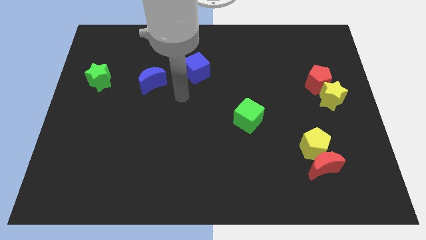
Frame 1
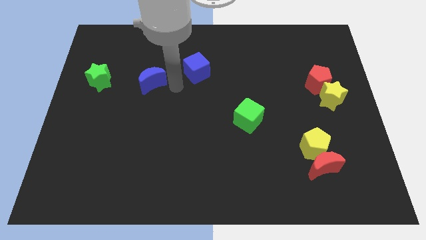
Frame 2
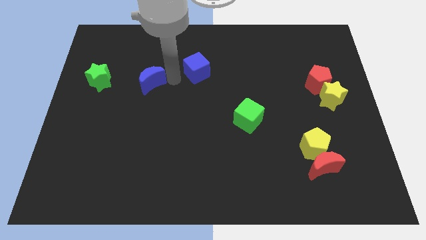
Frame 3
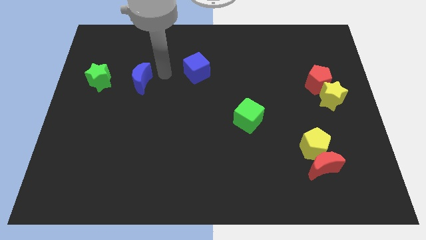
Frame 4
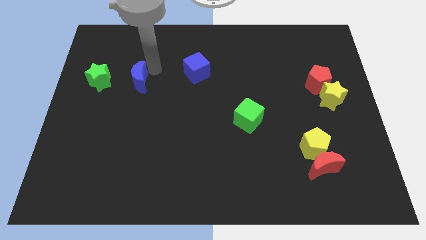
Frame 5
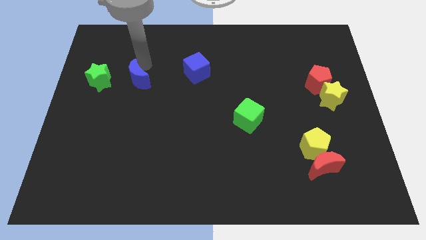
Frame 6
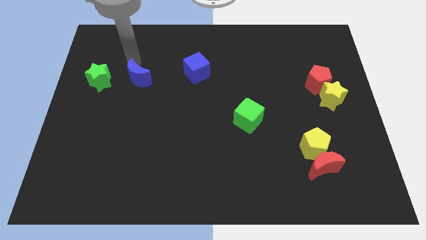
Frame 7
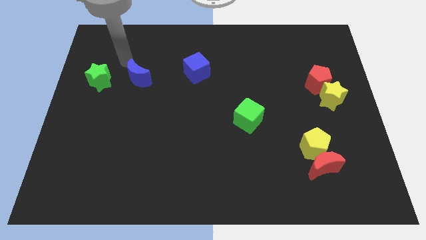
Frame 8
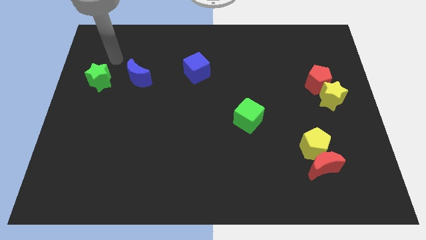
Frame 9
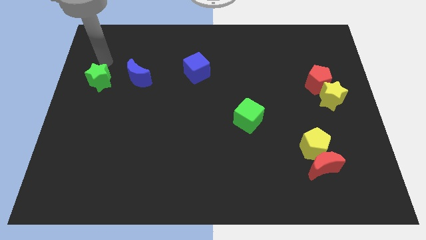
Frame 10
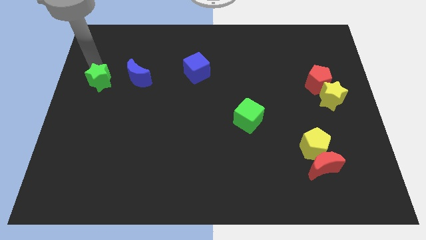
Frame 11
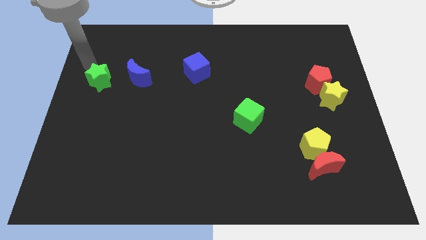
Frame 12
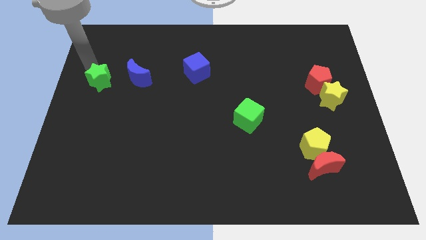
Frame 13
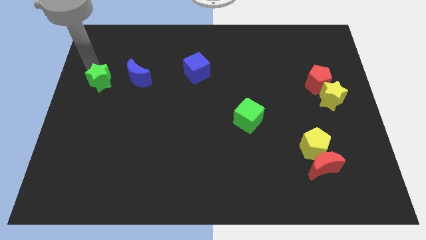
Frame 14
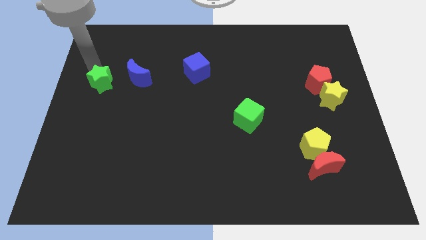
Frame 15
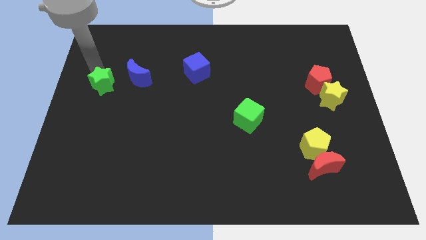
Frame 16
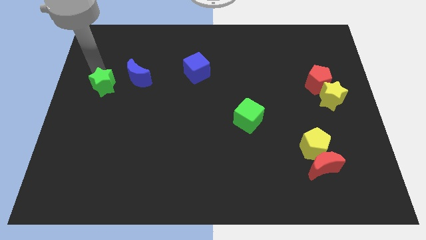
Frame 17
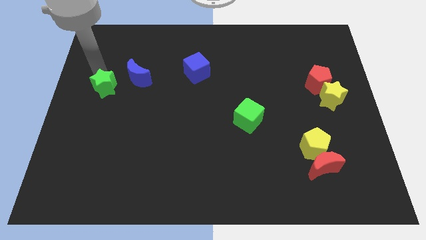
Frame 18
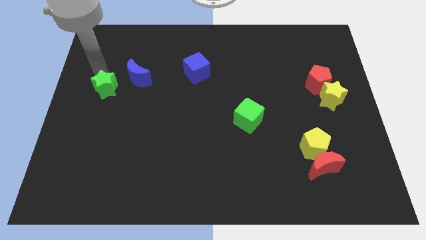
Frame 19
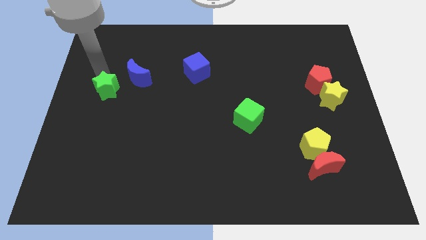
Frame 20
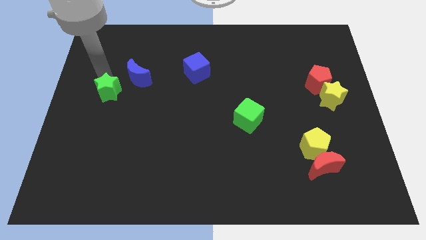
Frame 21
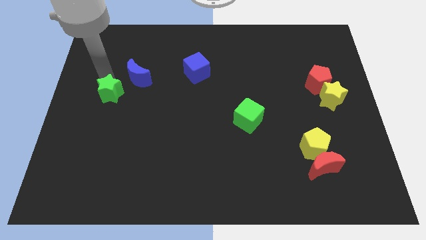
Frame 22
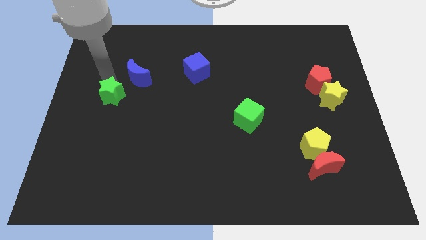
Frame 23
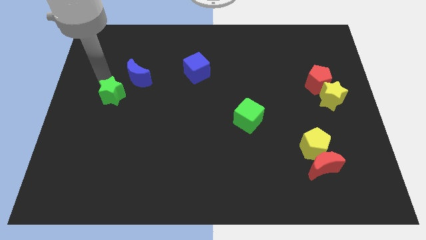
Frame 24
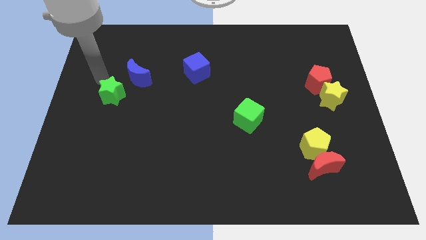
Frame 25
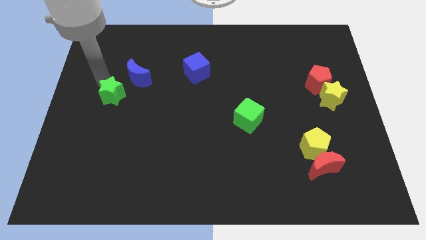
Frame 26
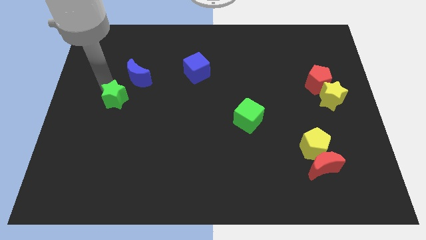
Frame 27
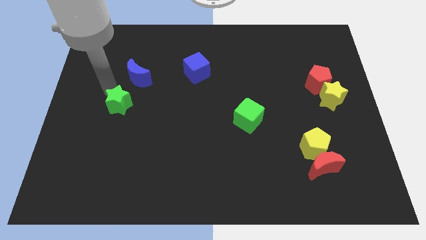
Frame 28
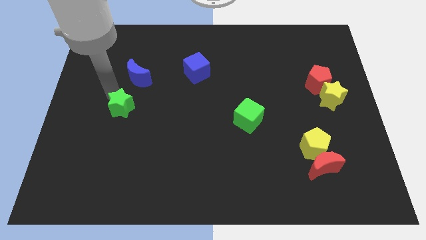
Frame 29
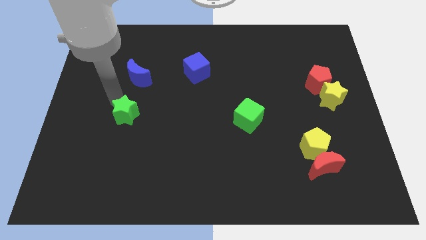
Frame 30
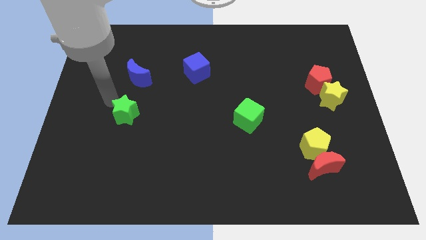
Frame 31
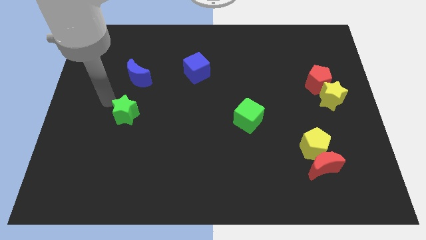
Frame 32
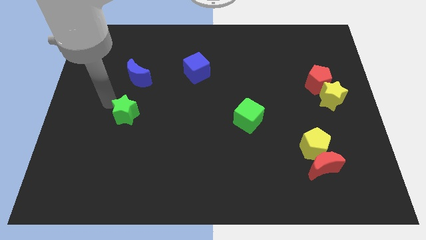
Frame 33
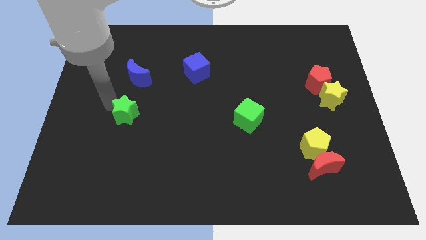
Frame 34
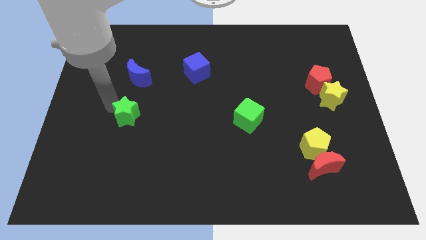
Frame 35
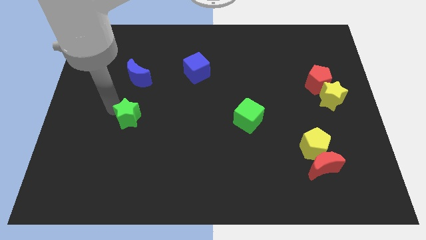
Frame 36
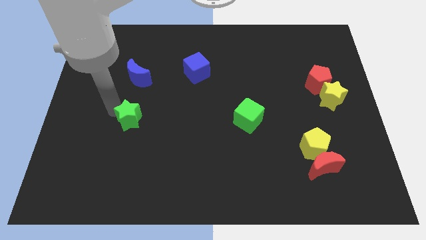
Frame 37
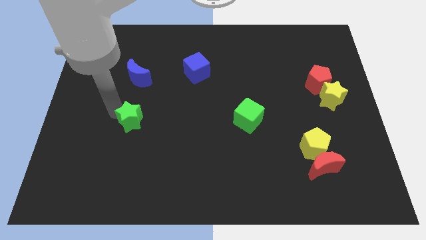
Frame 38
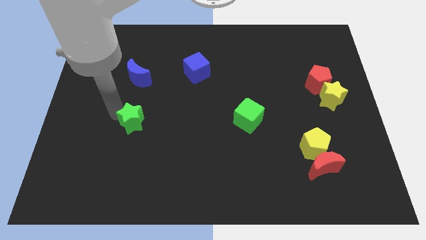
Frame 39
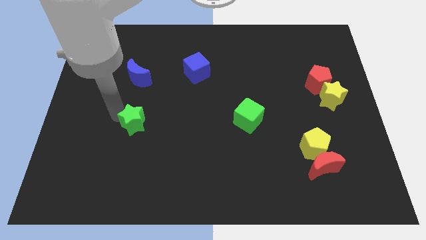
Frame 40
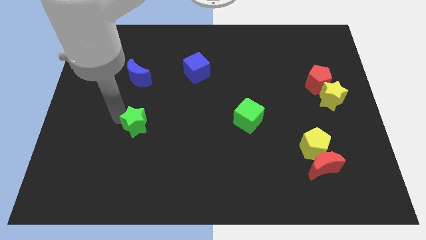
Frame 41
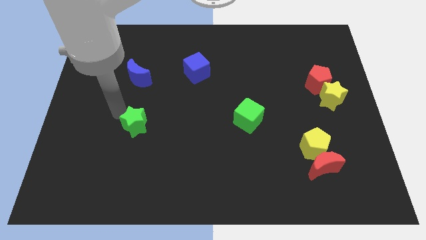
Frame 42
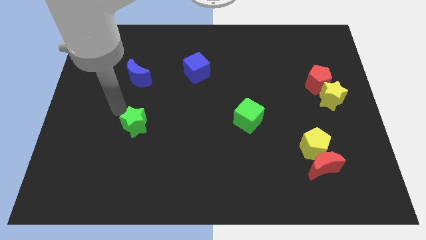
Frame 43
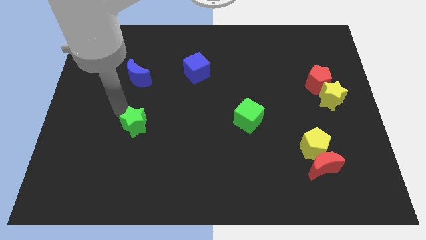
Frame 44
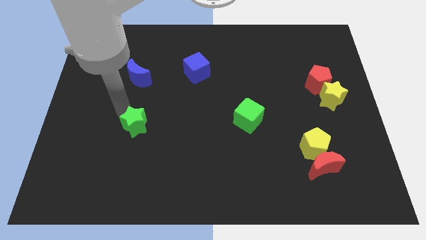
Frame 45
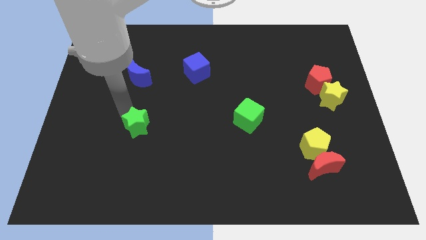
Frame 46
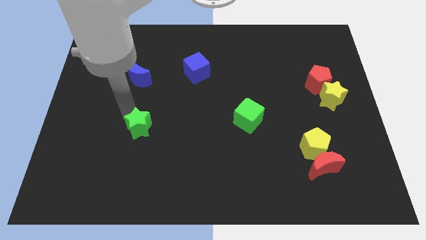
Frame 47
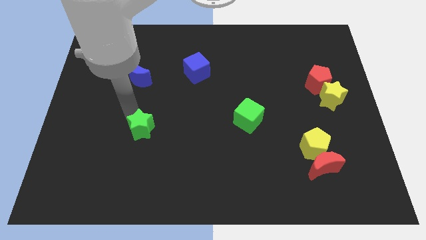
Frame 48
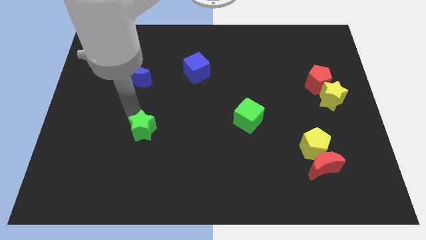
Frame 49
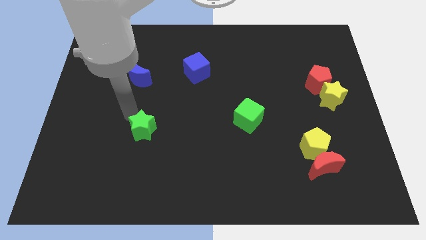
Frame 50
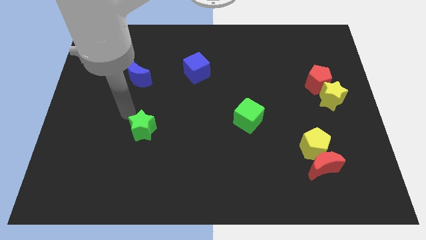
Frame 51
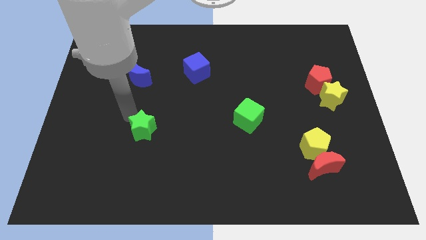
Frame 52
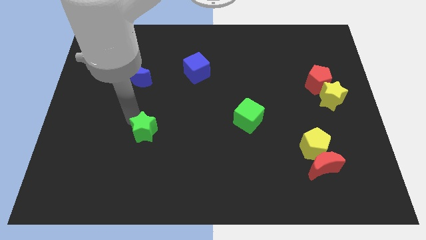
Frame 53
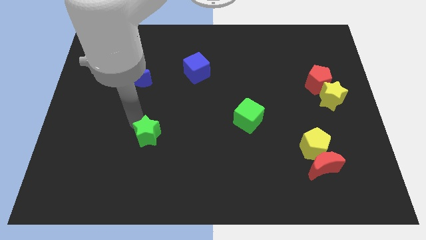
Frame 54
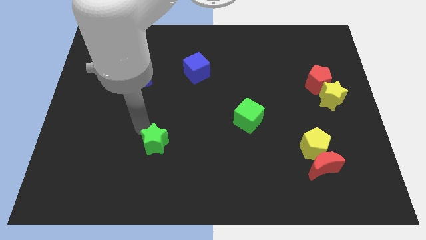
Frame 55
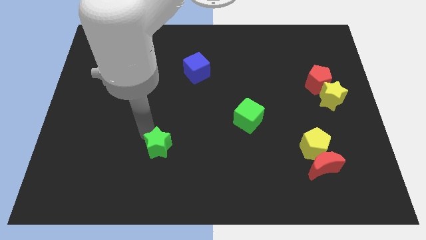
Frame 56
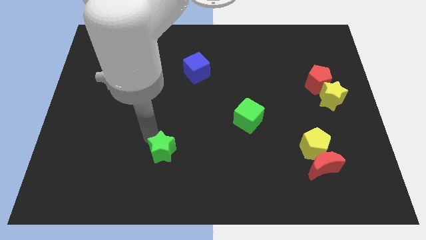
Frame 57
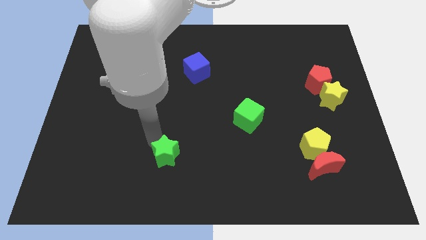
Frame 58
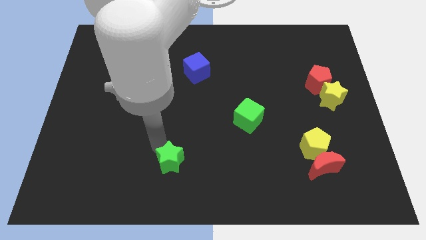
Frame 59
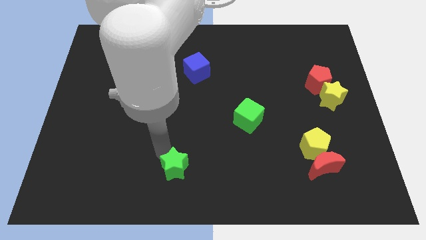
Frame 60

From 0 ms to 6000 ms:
push the green star to the bottom

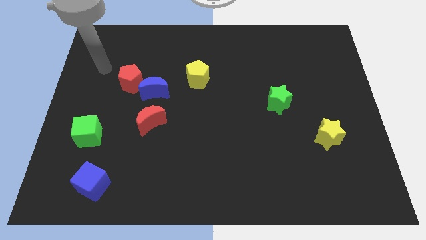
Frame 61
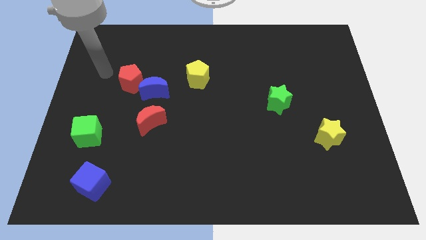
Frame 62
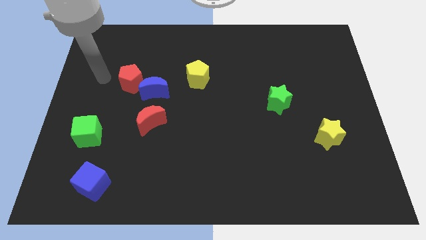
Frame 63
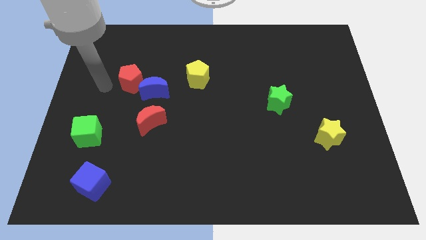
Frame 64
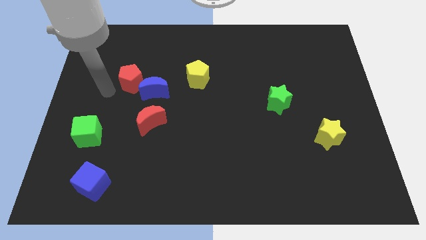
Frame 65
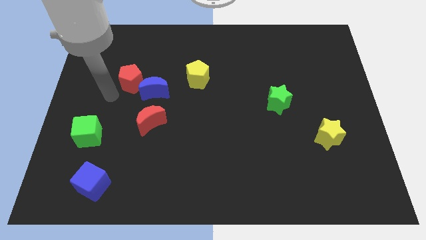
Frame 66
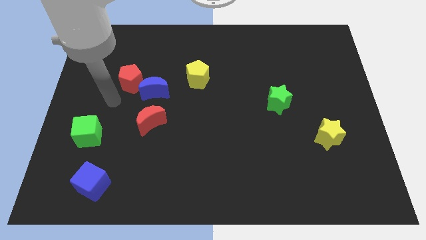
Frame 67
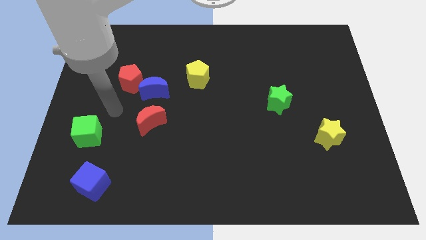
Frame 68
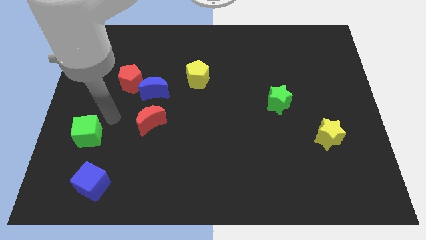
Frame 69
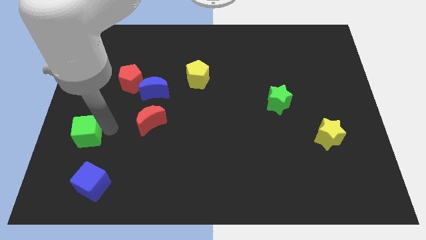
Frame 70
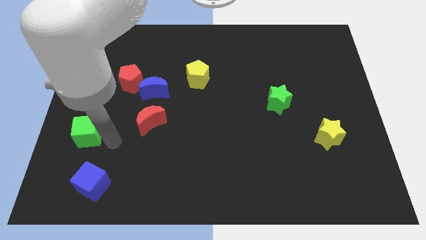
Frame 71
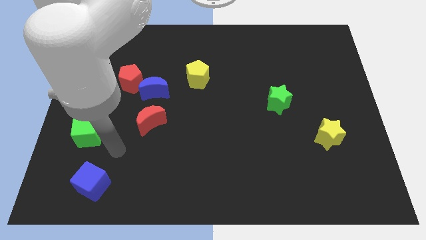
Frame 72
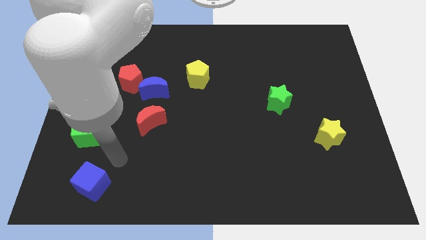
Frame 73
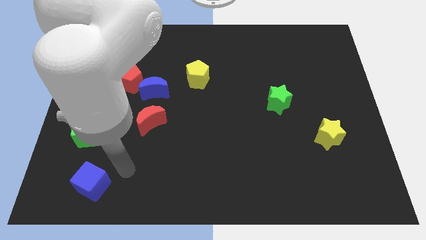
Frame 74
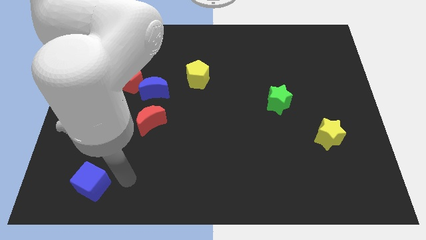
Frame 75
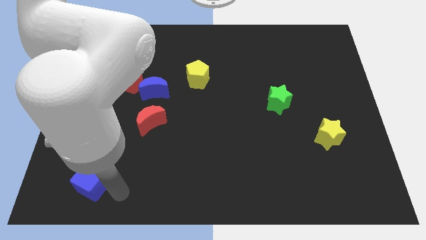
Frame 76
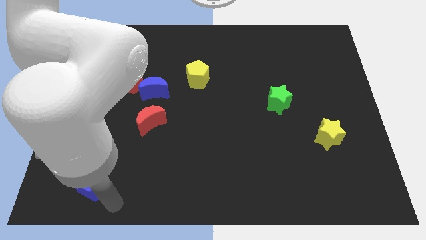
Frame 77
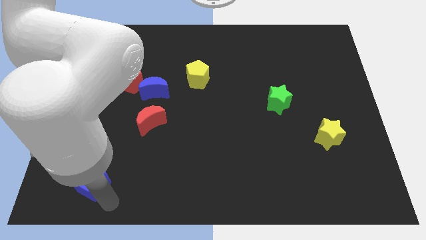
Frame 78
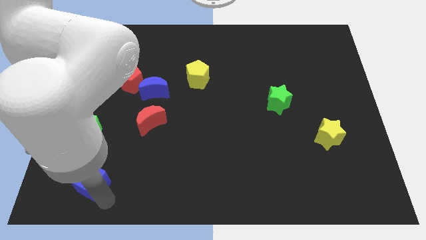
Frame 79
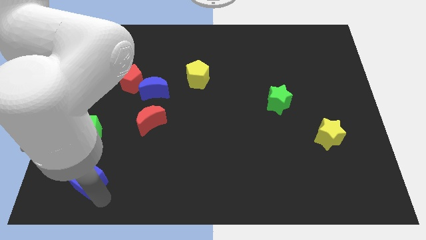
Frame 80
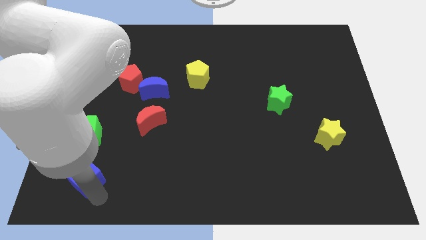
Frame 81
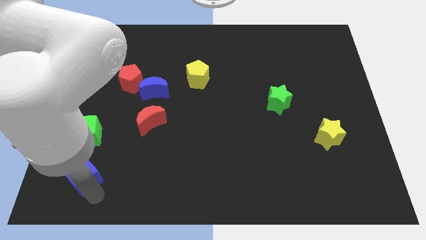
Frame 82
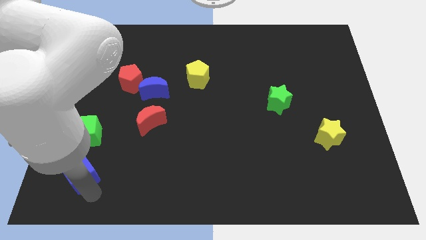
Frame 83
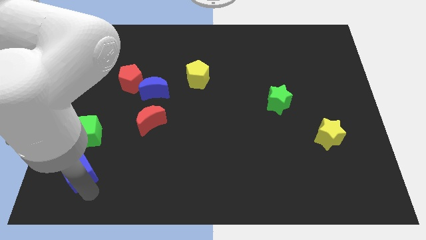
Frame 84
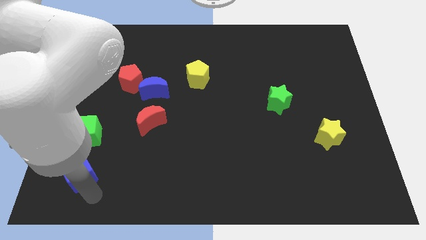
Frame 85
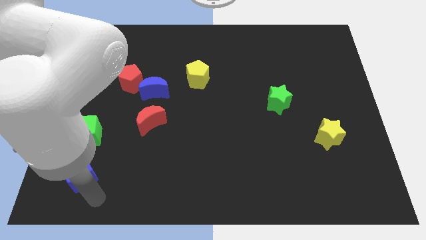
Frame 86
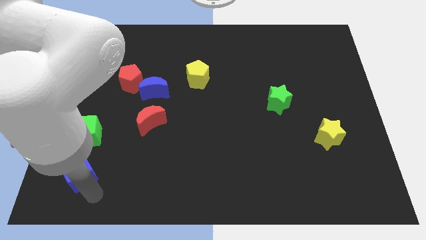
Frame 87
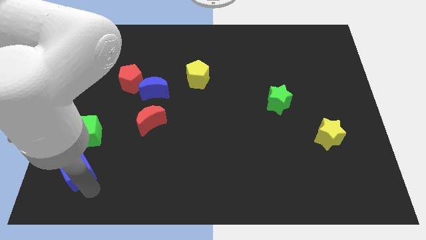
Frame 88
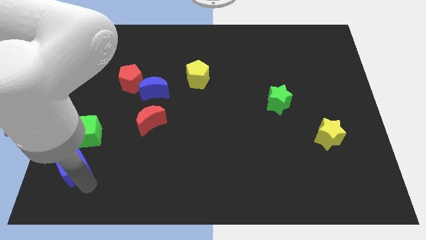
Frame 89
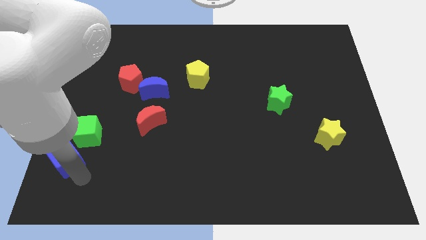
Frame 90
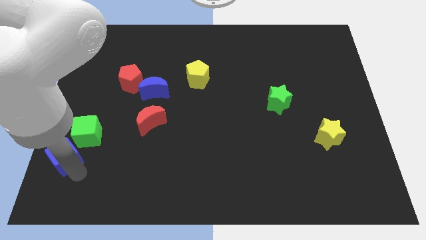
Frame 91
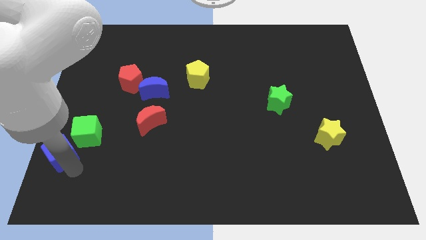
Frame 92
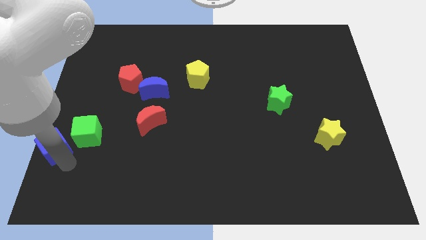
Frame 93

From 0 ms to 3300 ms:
slide the blue cube to the left side
